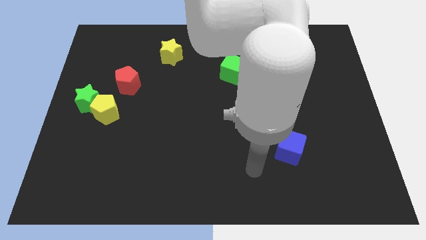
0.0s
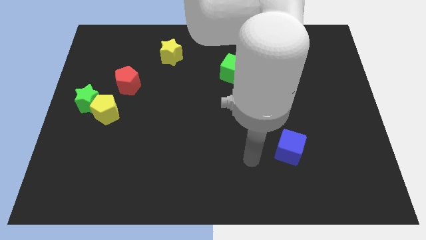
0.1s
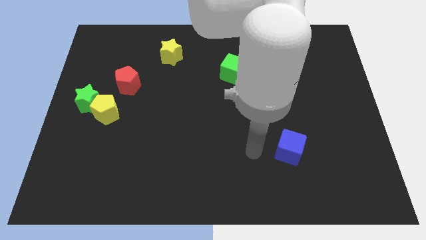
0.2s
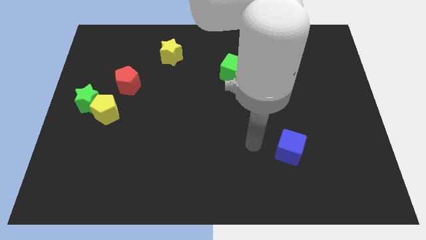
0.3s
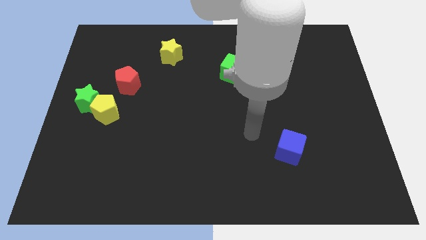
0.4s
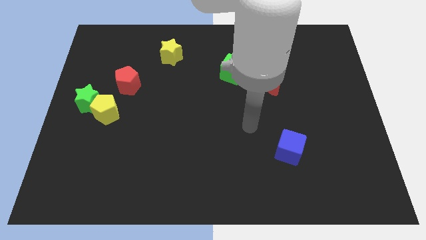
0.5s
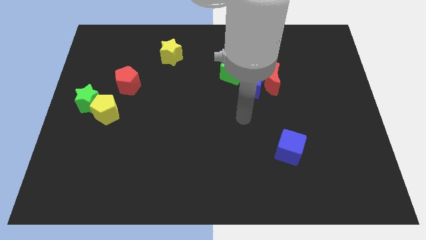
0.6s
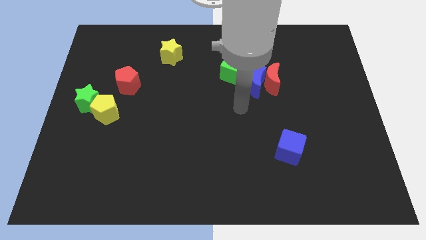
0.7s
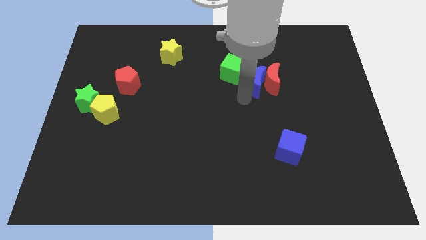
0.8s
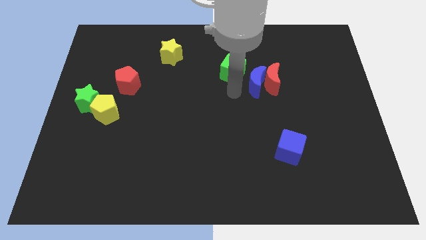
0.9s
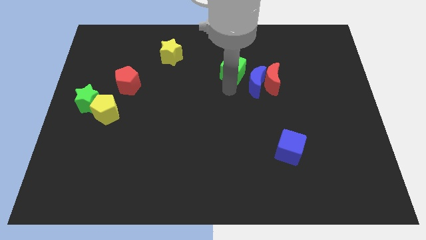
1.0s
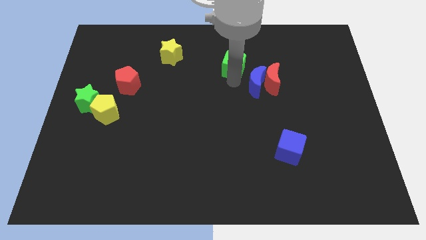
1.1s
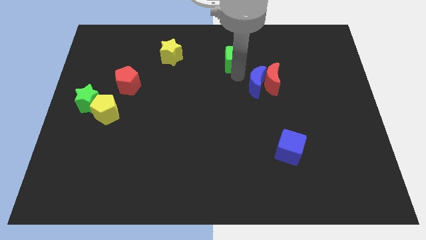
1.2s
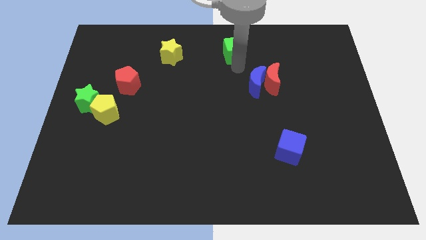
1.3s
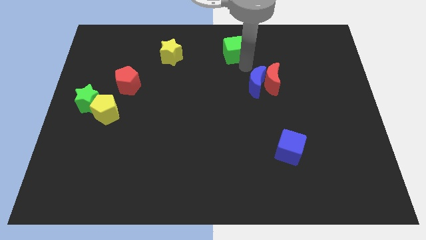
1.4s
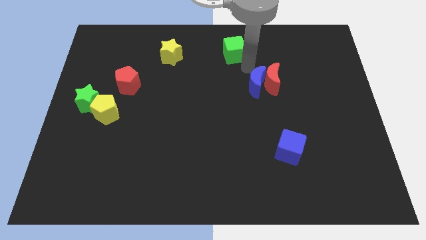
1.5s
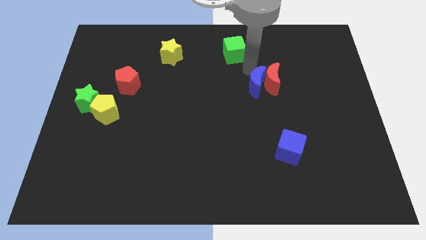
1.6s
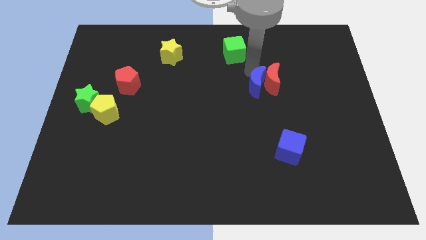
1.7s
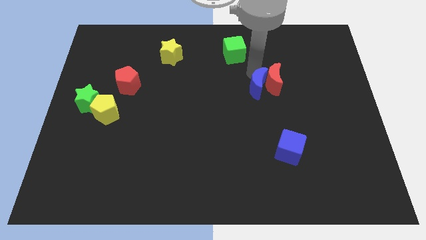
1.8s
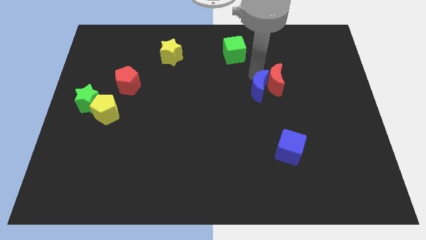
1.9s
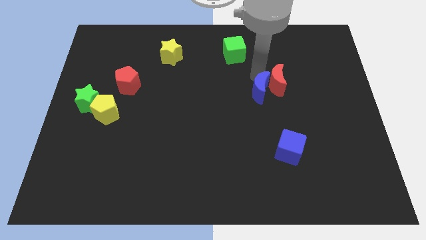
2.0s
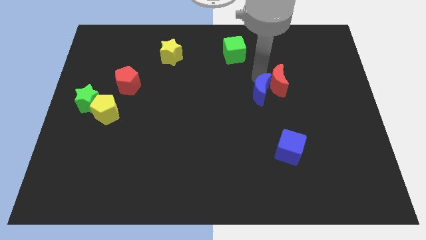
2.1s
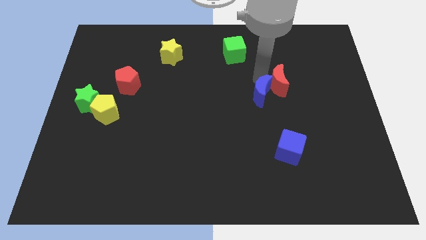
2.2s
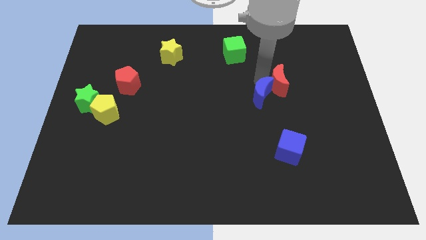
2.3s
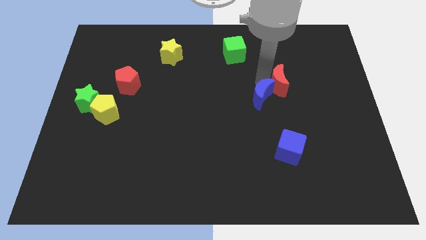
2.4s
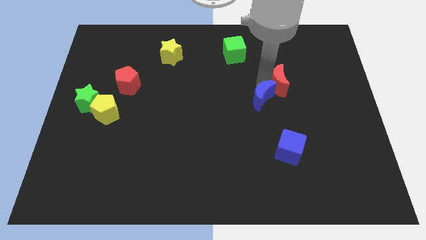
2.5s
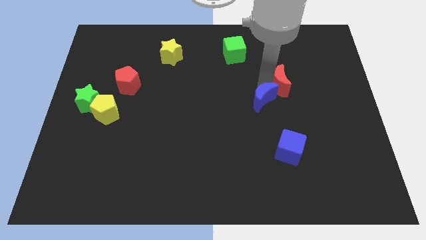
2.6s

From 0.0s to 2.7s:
move the blue moon away from the red moon and green cube

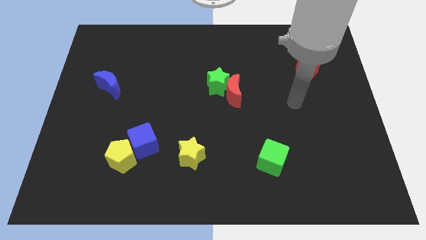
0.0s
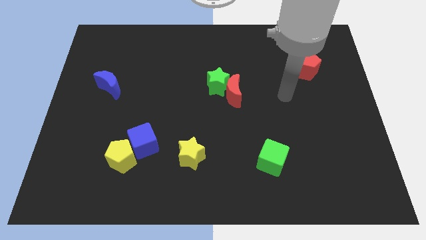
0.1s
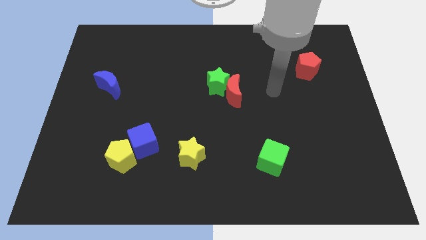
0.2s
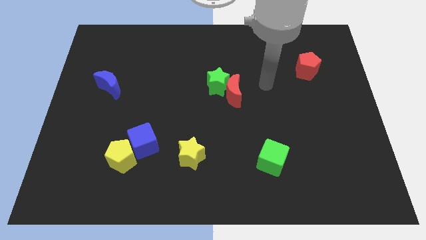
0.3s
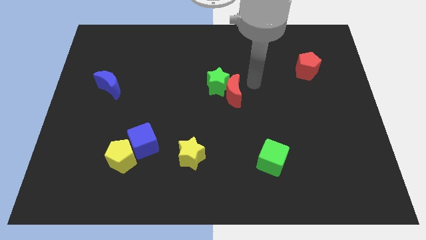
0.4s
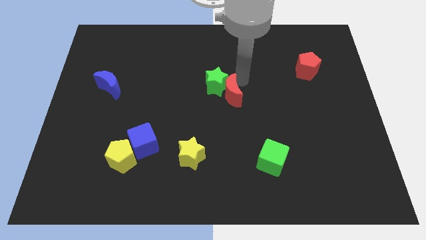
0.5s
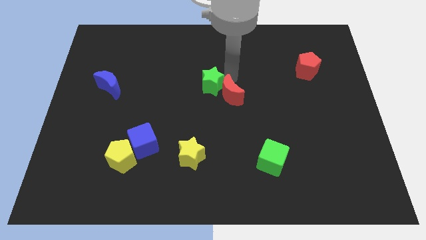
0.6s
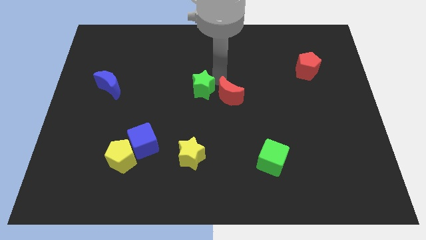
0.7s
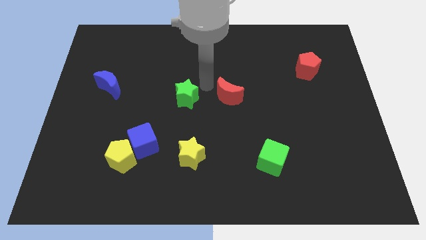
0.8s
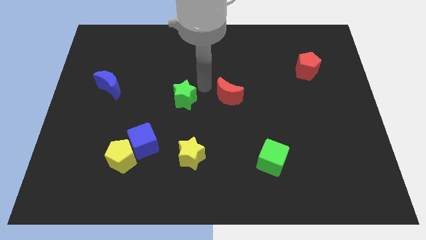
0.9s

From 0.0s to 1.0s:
separate the red moon from the green star

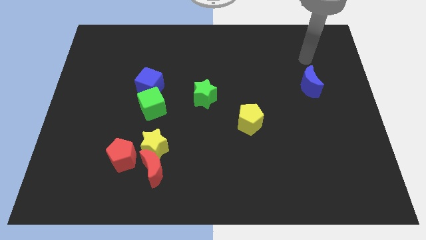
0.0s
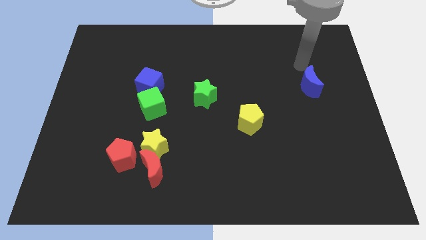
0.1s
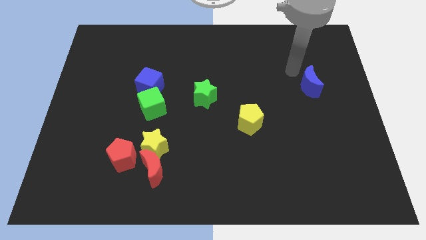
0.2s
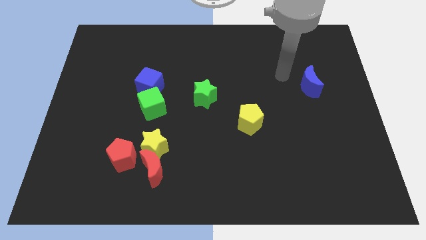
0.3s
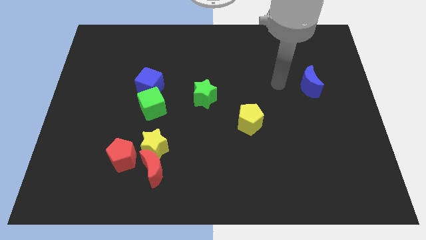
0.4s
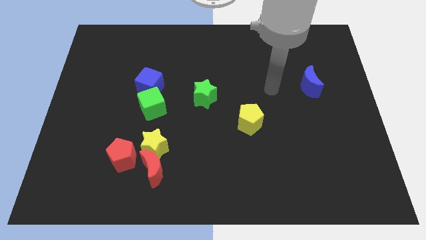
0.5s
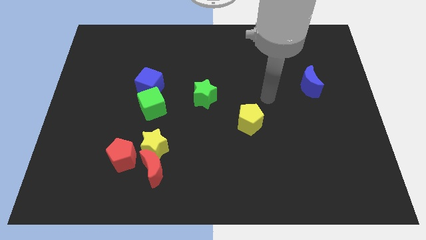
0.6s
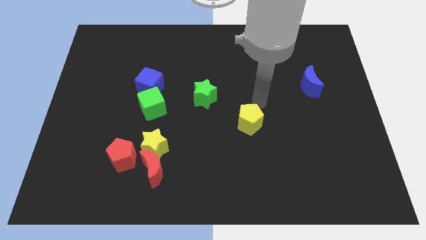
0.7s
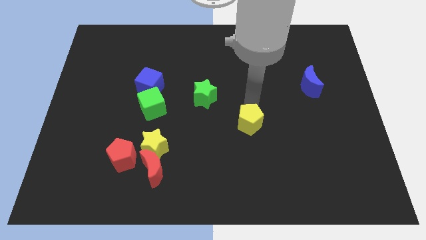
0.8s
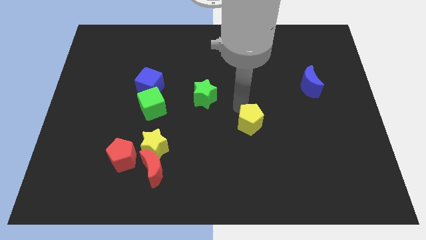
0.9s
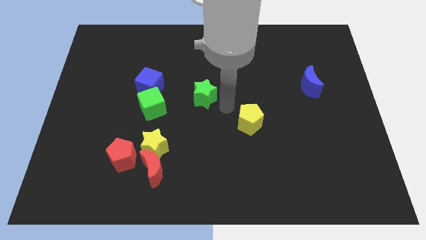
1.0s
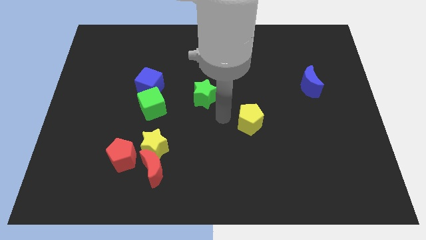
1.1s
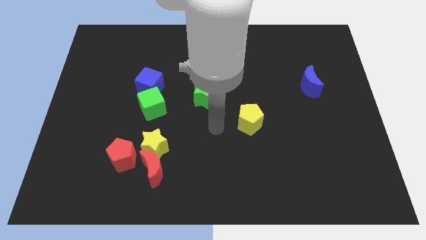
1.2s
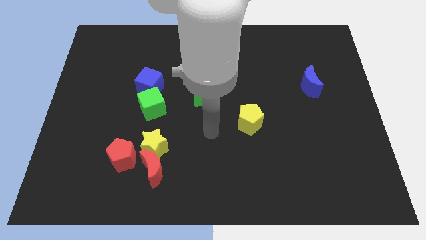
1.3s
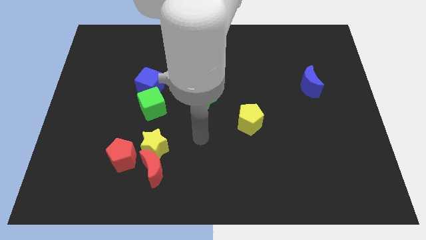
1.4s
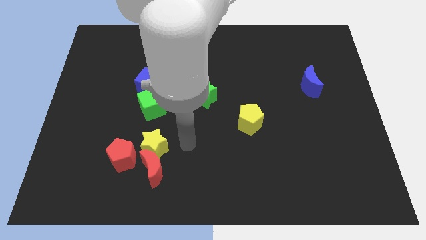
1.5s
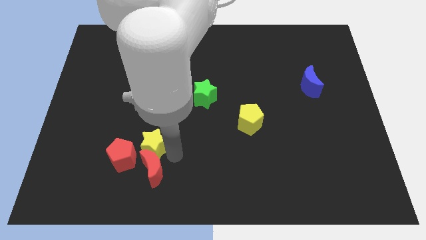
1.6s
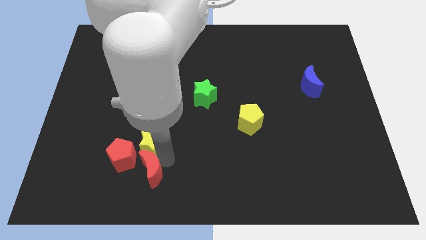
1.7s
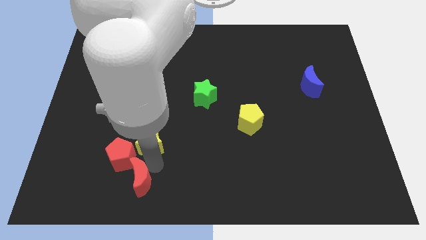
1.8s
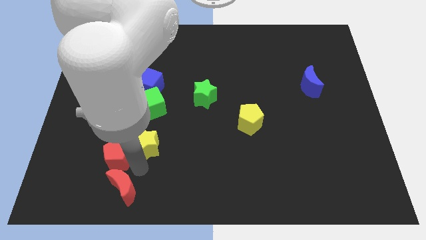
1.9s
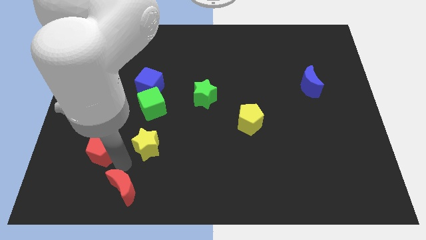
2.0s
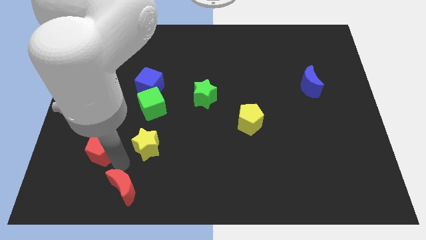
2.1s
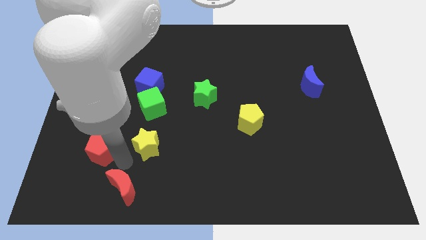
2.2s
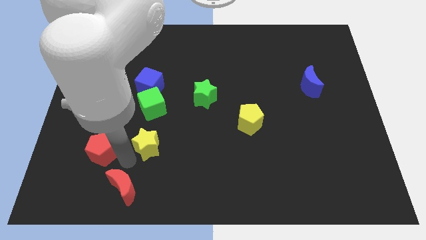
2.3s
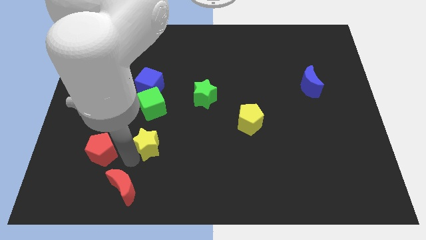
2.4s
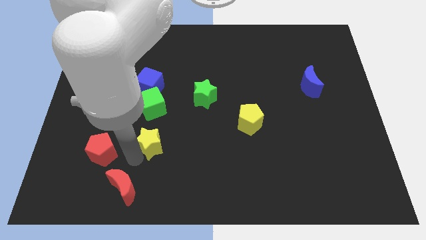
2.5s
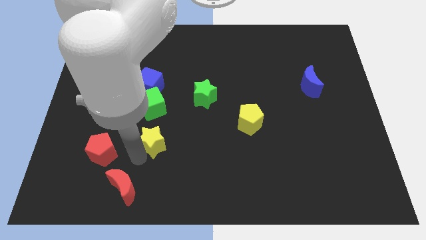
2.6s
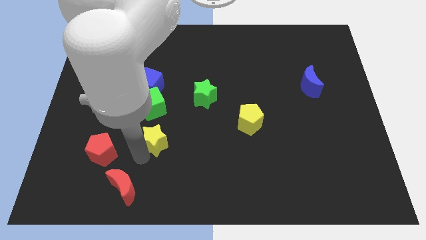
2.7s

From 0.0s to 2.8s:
separate the yellow star from the red moon and red pentagon

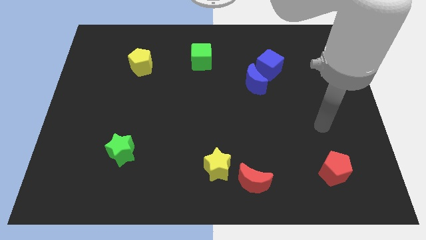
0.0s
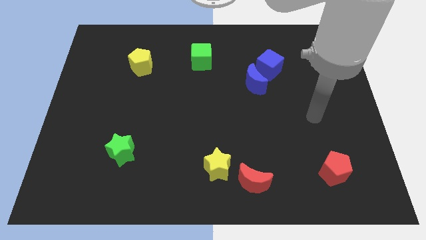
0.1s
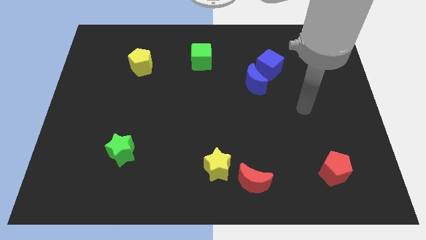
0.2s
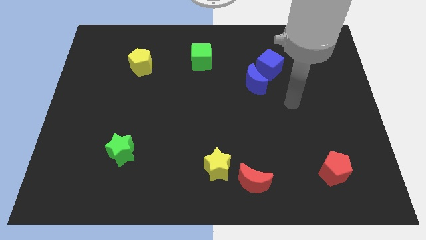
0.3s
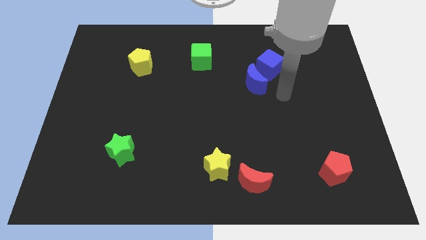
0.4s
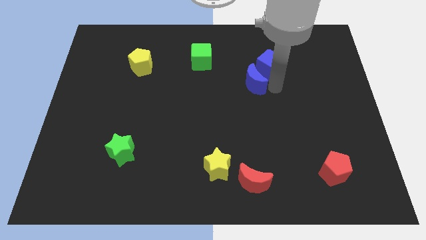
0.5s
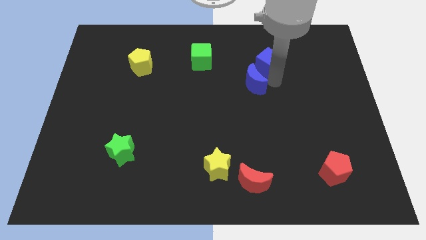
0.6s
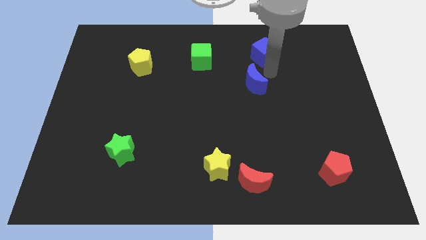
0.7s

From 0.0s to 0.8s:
separate the blue moon from the blue cube

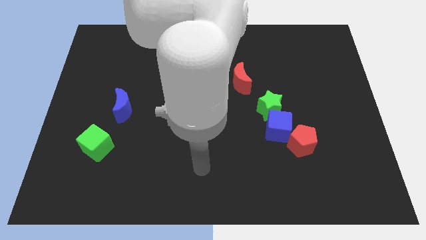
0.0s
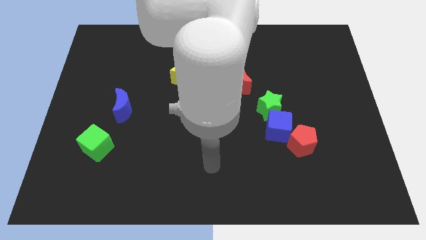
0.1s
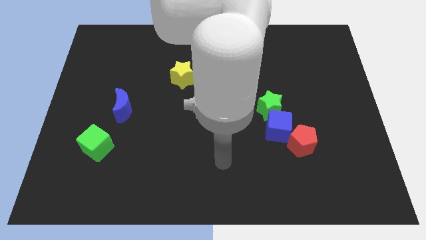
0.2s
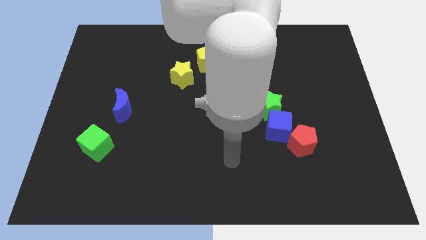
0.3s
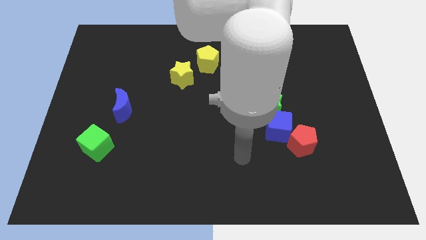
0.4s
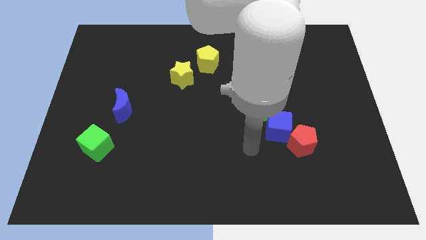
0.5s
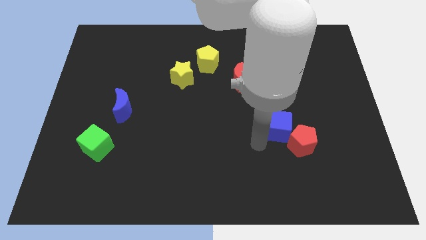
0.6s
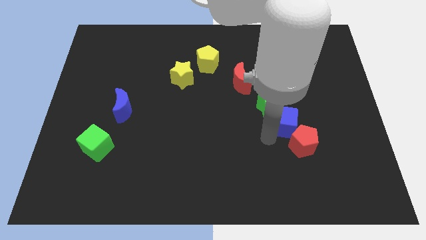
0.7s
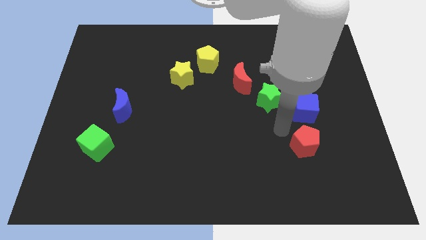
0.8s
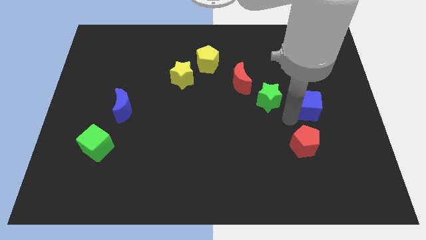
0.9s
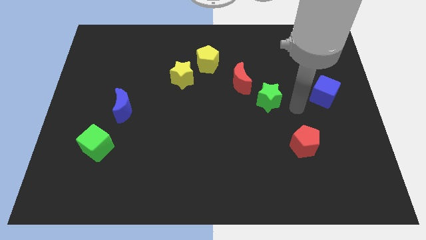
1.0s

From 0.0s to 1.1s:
pull the green star apart from the blue cube

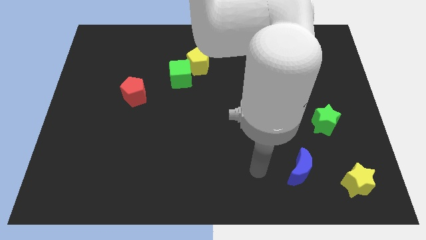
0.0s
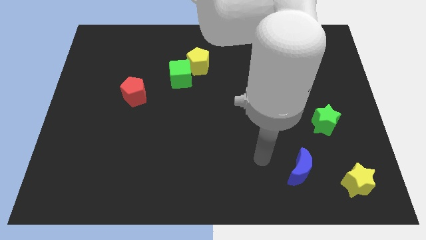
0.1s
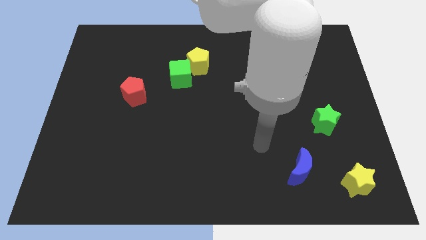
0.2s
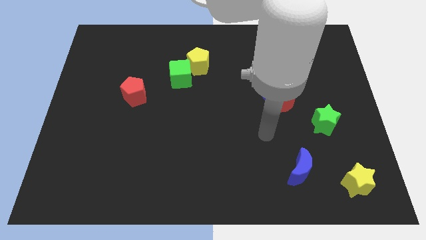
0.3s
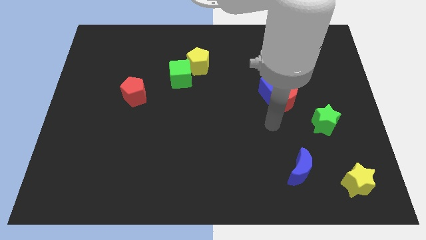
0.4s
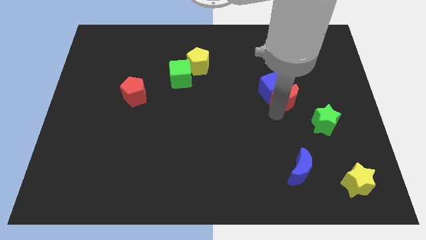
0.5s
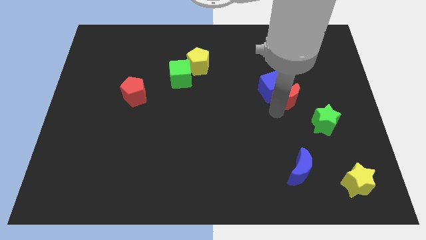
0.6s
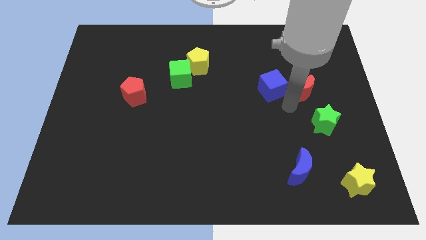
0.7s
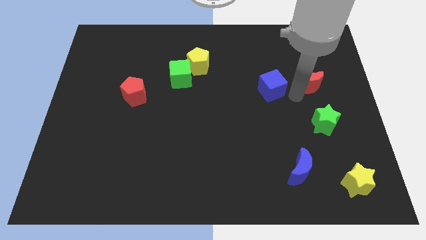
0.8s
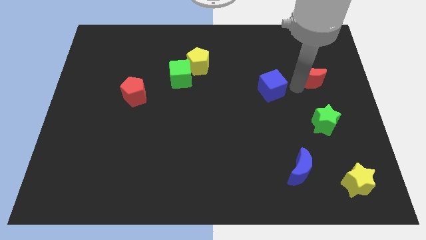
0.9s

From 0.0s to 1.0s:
move the blue cube away from the red moon
